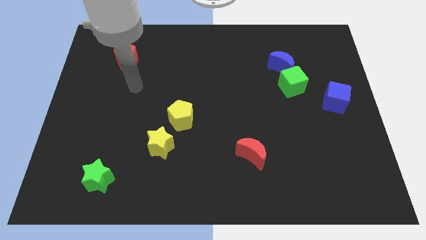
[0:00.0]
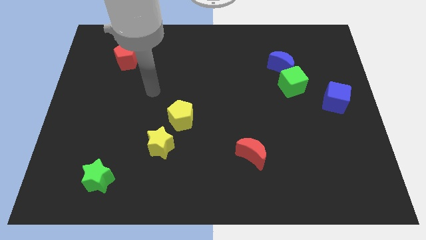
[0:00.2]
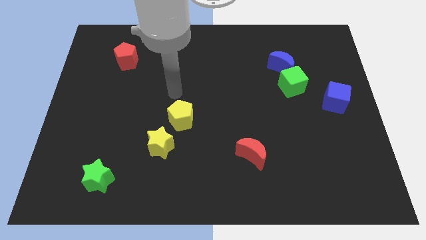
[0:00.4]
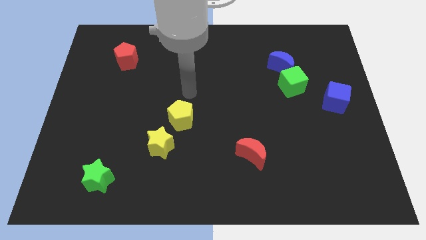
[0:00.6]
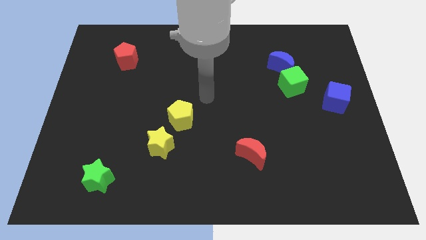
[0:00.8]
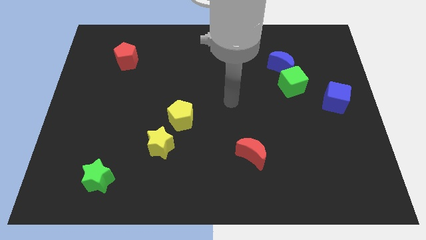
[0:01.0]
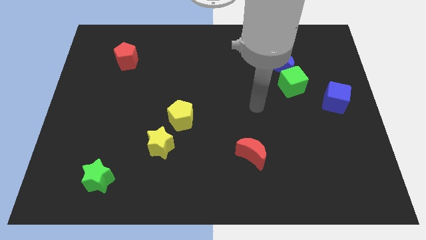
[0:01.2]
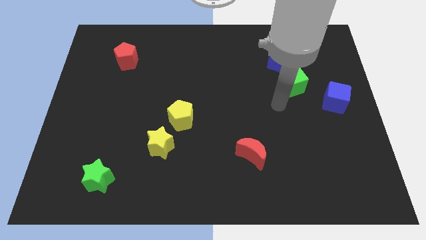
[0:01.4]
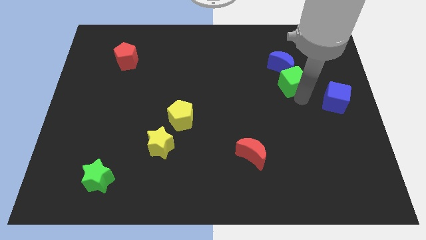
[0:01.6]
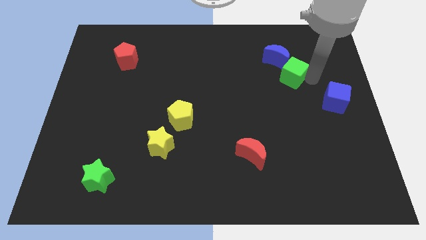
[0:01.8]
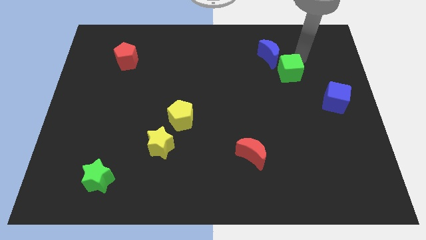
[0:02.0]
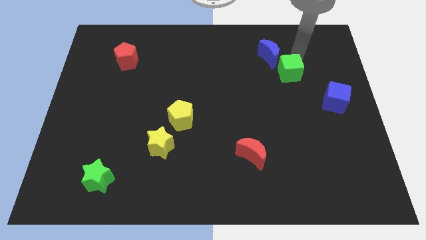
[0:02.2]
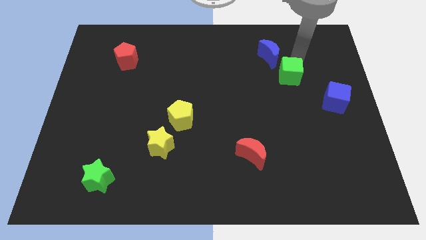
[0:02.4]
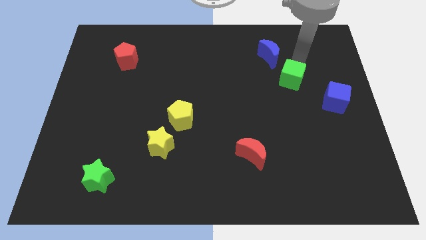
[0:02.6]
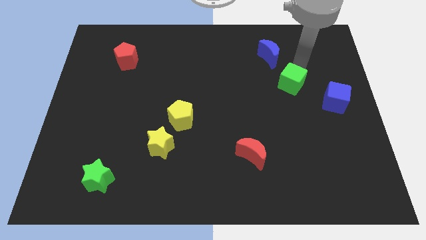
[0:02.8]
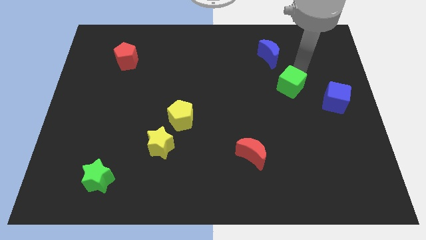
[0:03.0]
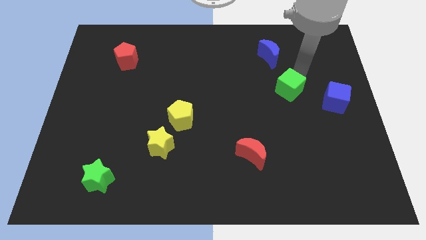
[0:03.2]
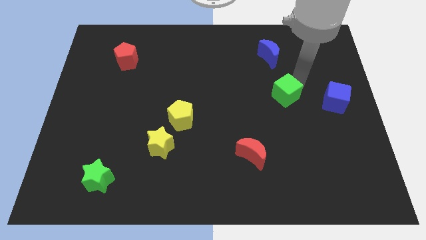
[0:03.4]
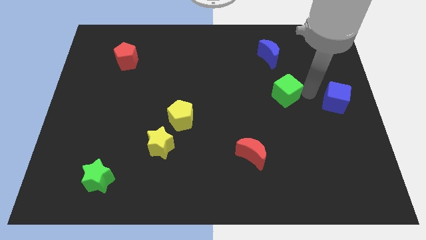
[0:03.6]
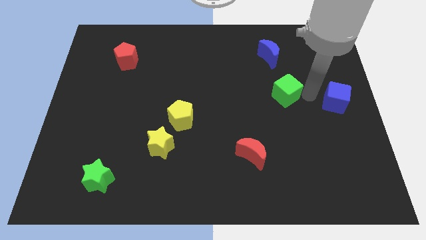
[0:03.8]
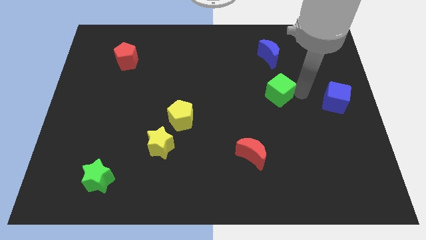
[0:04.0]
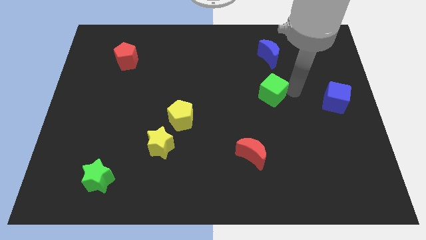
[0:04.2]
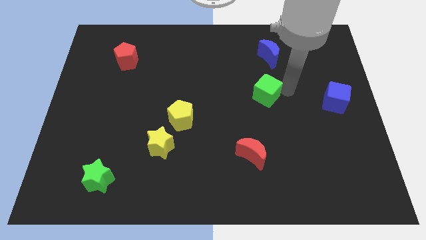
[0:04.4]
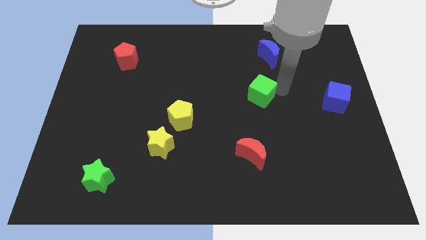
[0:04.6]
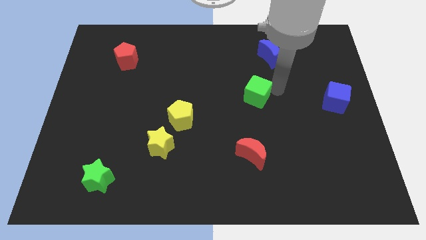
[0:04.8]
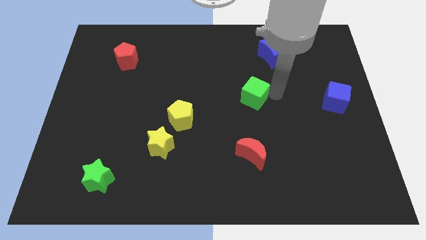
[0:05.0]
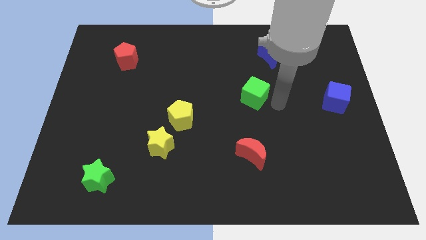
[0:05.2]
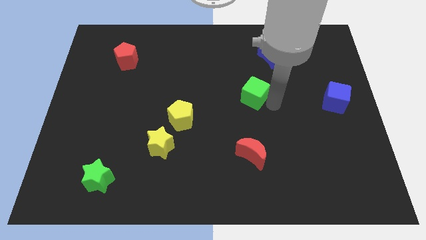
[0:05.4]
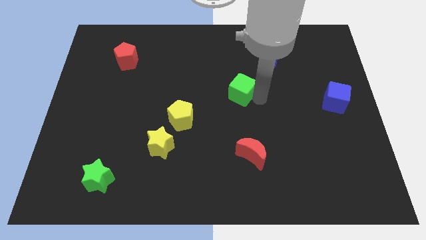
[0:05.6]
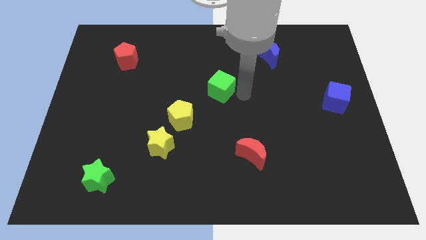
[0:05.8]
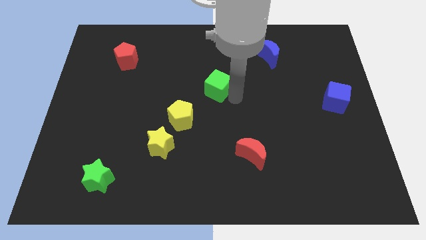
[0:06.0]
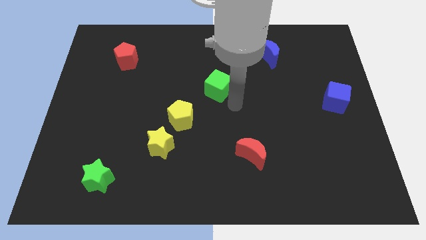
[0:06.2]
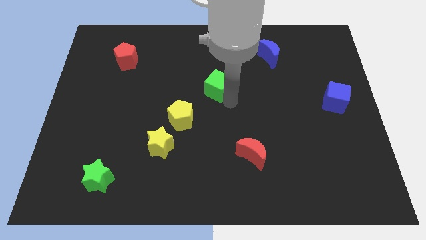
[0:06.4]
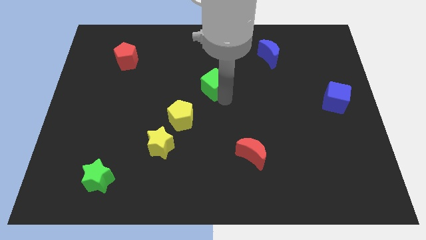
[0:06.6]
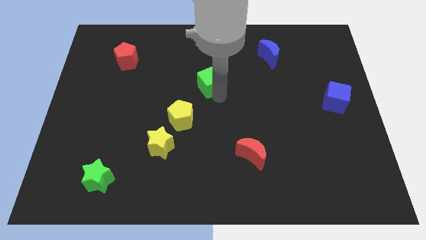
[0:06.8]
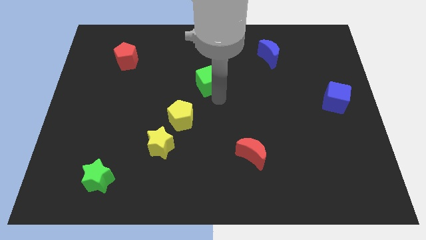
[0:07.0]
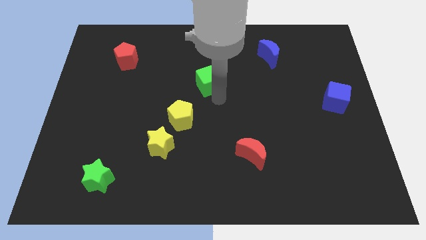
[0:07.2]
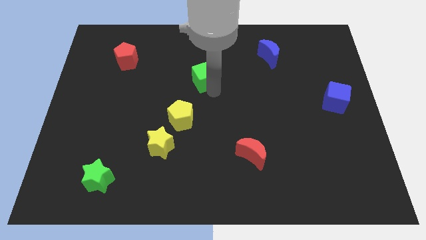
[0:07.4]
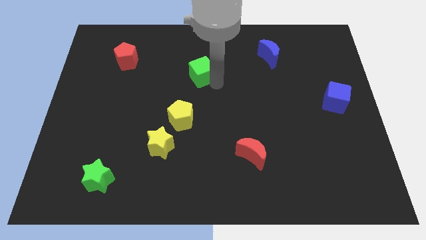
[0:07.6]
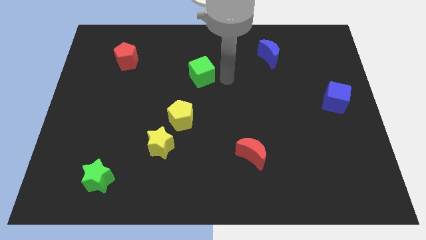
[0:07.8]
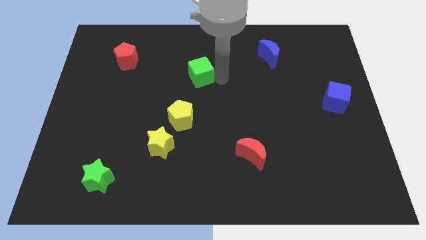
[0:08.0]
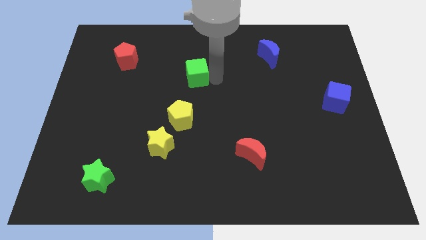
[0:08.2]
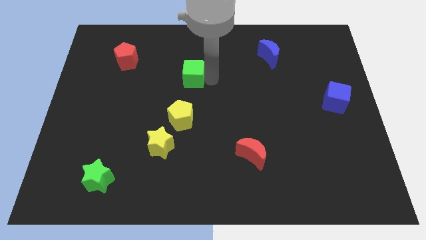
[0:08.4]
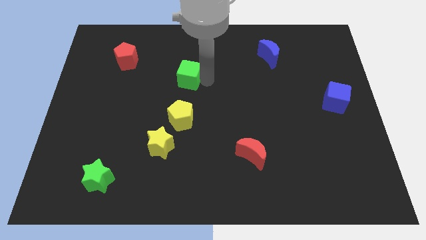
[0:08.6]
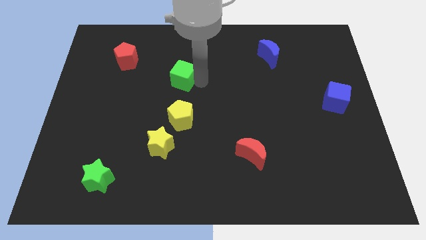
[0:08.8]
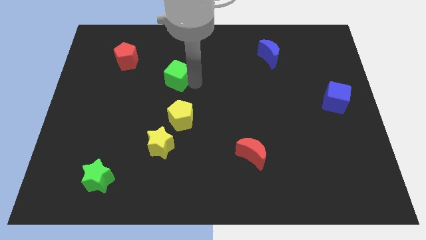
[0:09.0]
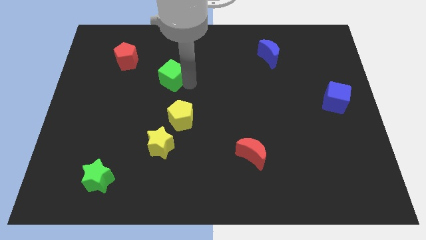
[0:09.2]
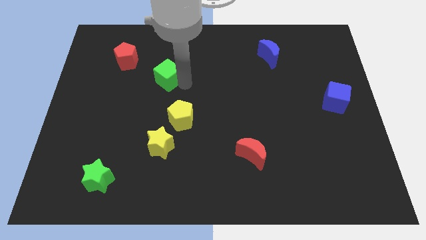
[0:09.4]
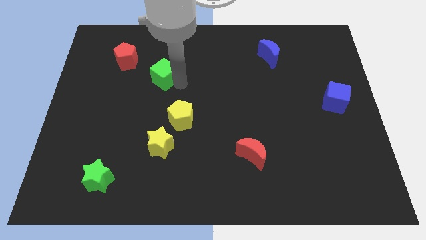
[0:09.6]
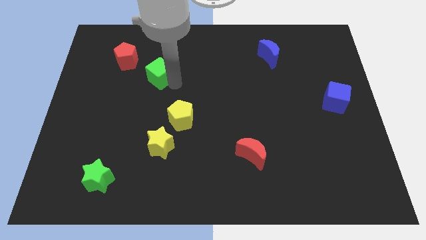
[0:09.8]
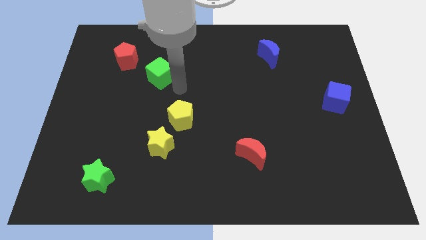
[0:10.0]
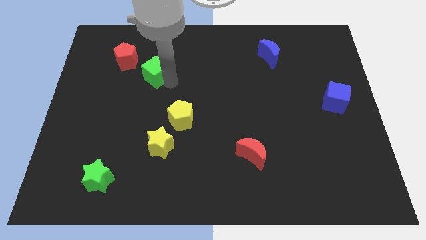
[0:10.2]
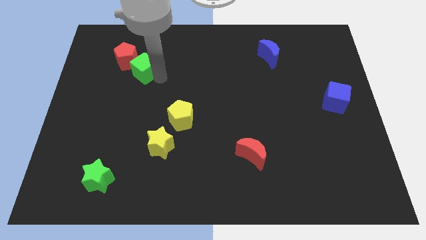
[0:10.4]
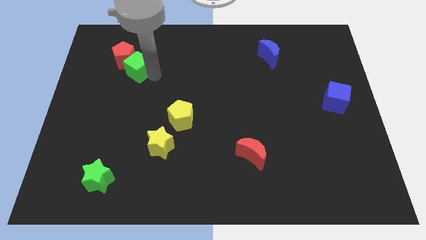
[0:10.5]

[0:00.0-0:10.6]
slide the green cube close to the red pentagon

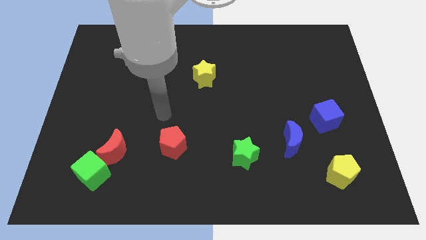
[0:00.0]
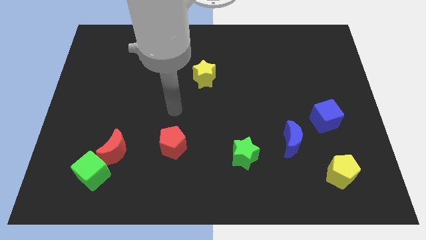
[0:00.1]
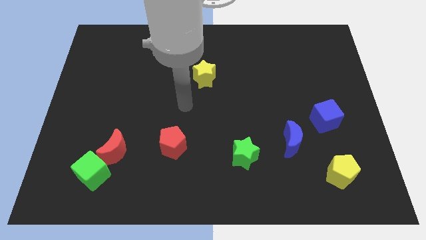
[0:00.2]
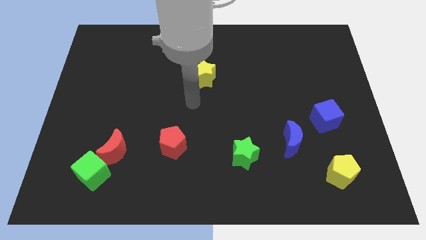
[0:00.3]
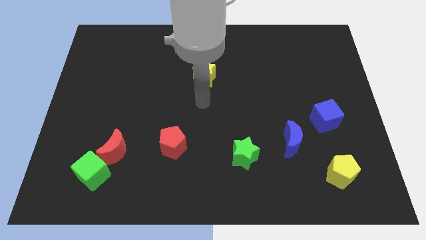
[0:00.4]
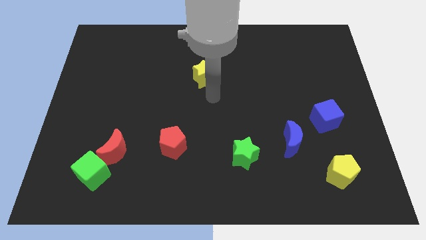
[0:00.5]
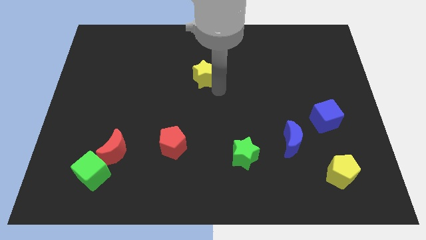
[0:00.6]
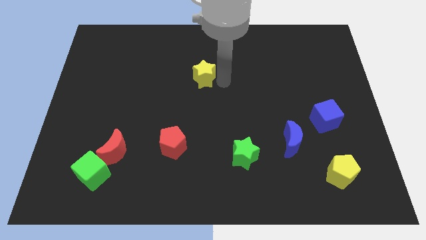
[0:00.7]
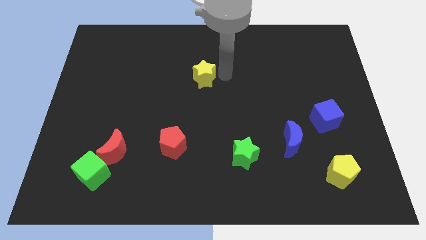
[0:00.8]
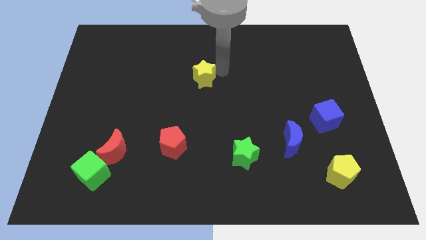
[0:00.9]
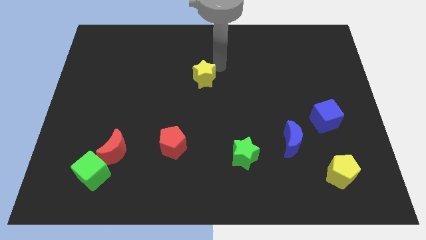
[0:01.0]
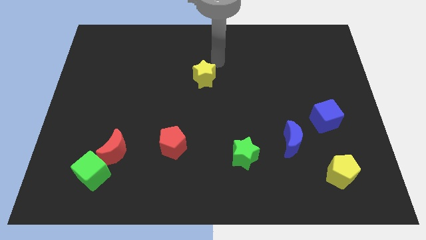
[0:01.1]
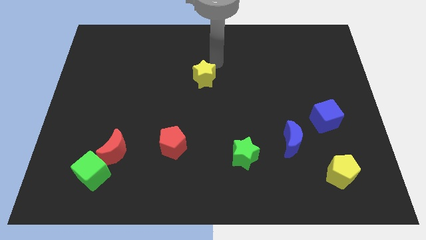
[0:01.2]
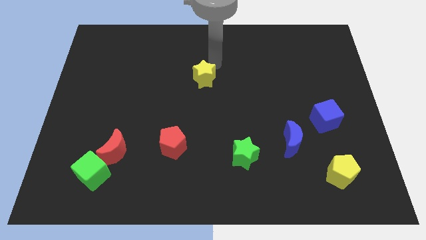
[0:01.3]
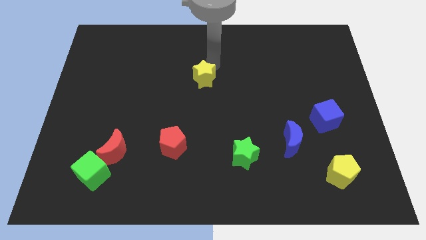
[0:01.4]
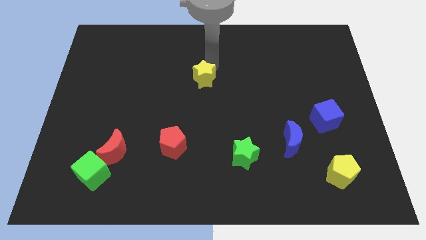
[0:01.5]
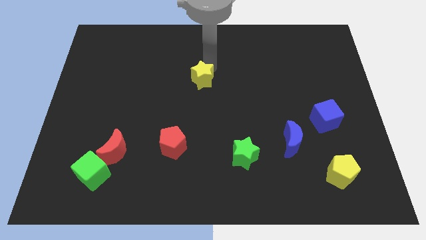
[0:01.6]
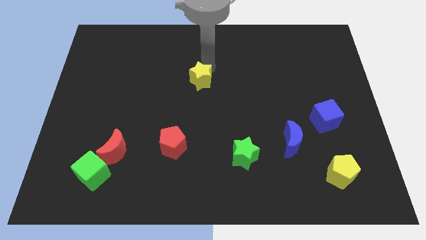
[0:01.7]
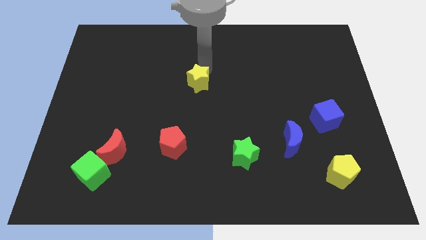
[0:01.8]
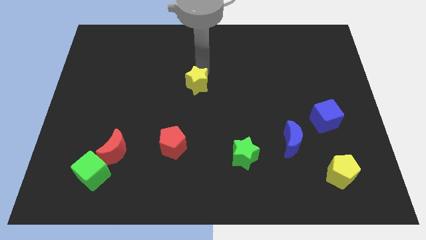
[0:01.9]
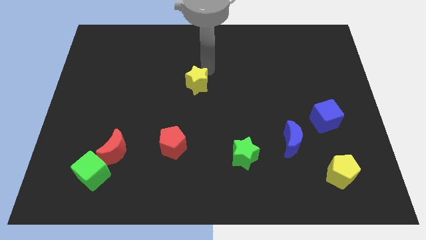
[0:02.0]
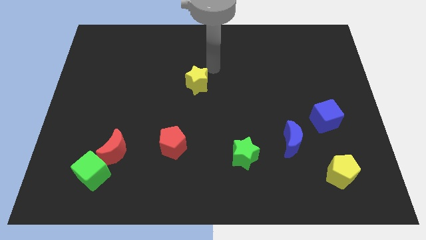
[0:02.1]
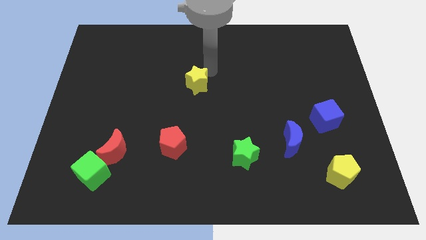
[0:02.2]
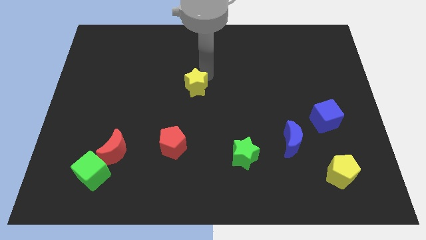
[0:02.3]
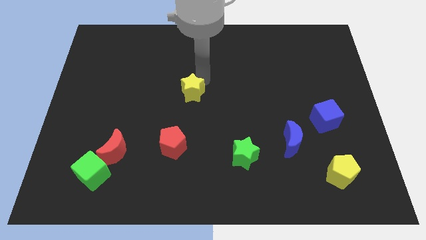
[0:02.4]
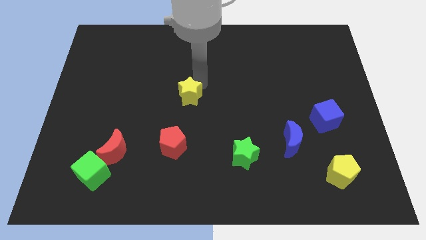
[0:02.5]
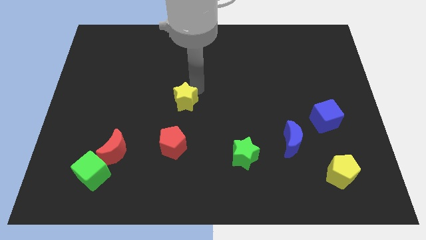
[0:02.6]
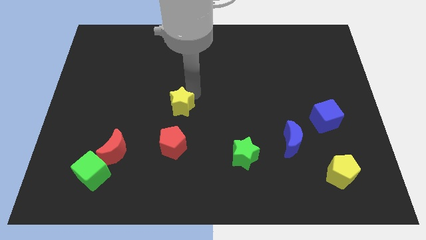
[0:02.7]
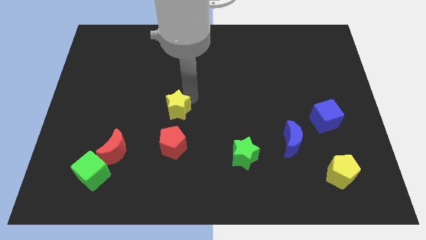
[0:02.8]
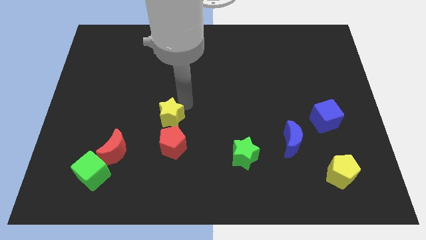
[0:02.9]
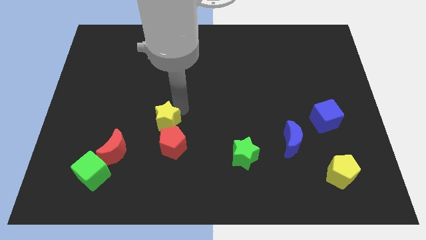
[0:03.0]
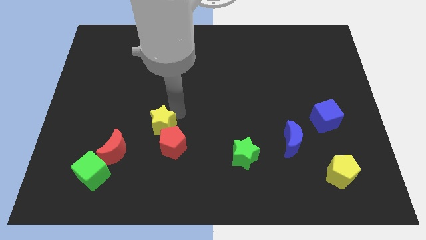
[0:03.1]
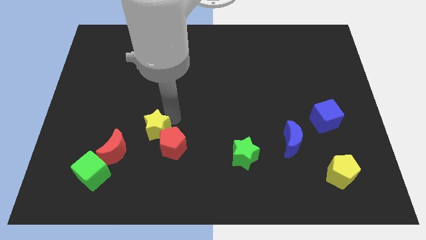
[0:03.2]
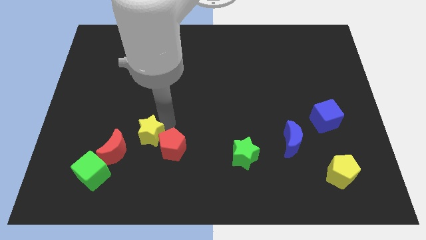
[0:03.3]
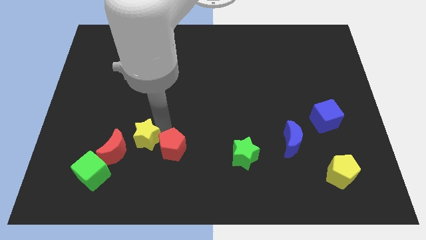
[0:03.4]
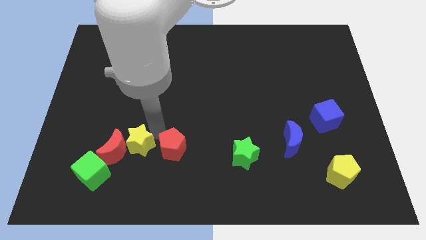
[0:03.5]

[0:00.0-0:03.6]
push the yellow star to the red moon
